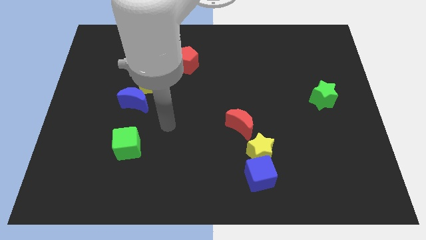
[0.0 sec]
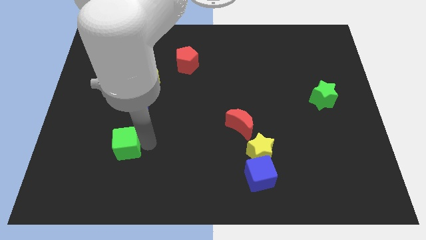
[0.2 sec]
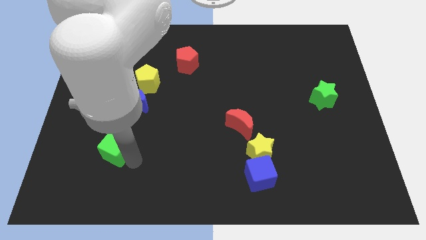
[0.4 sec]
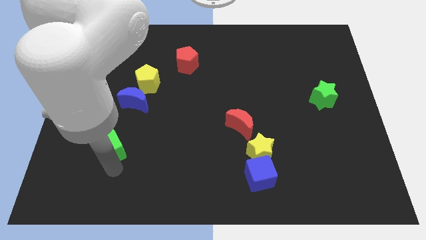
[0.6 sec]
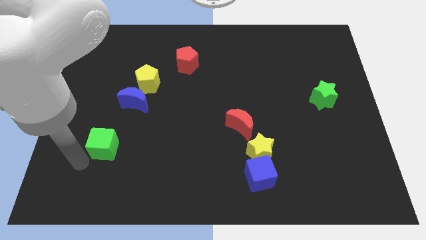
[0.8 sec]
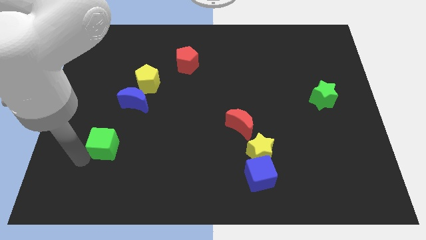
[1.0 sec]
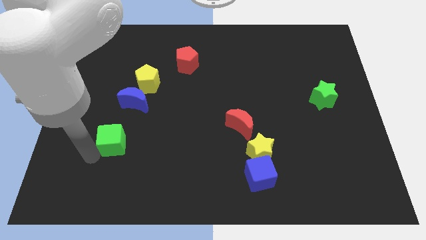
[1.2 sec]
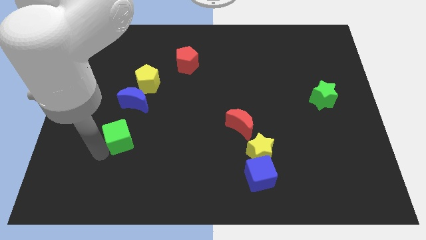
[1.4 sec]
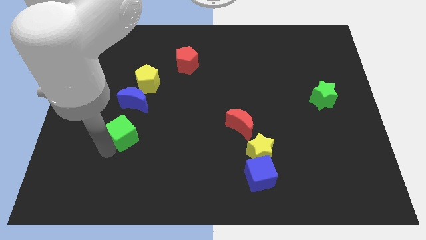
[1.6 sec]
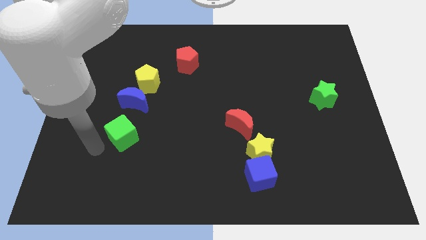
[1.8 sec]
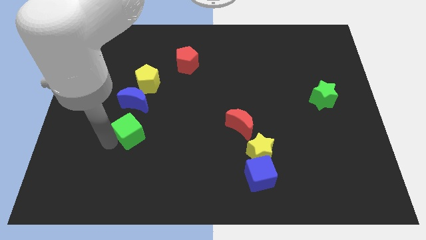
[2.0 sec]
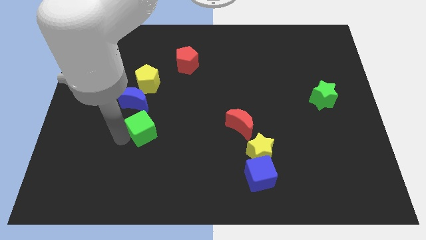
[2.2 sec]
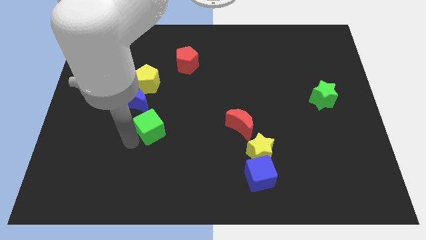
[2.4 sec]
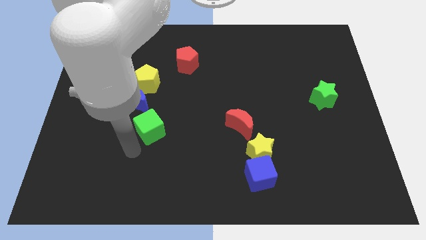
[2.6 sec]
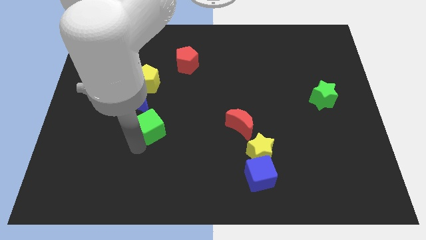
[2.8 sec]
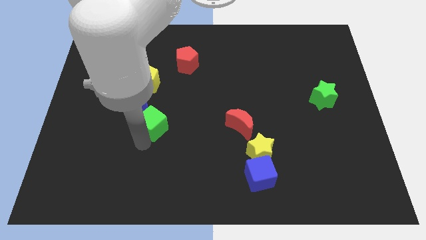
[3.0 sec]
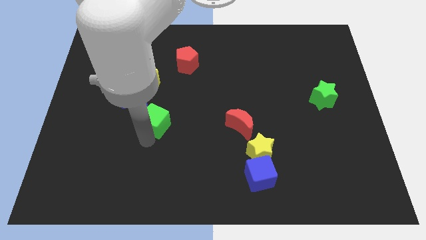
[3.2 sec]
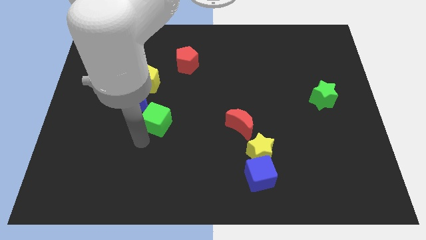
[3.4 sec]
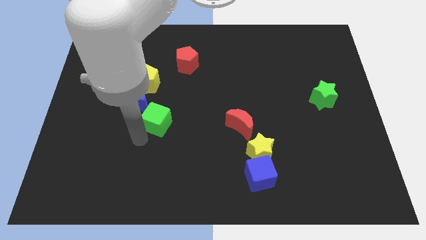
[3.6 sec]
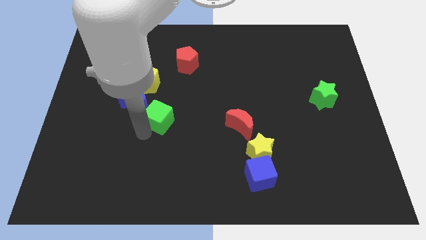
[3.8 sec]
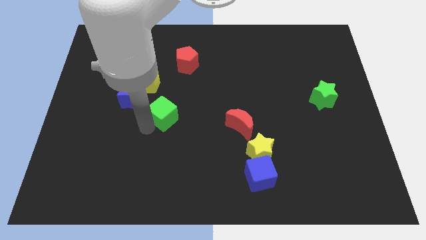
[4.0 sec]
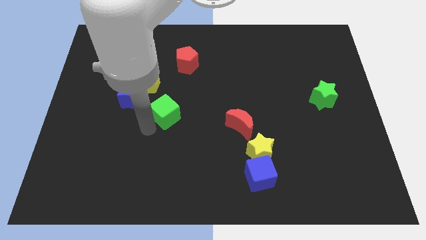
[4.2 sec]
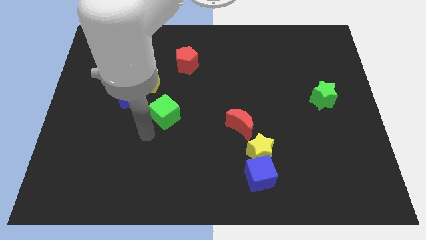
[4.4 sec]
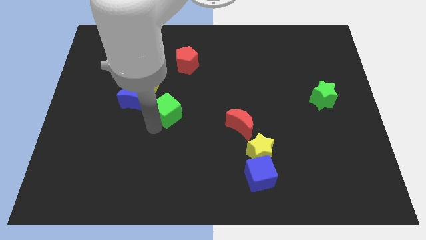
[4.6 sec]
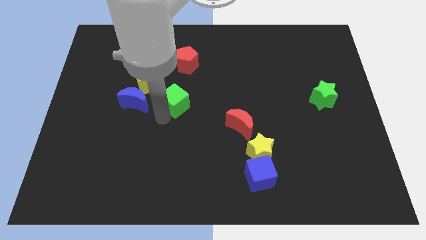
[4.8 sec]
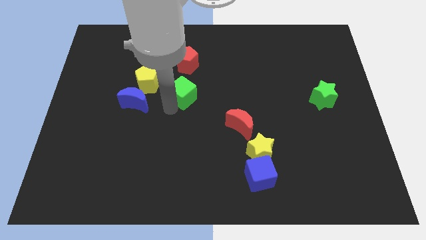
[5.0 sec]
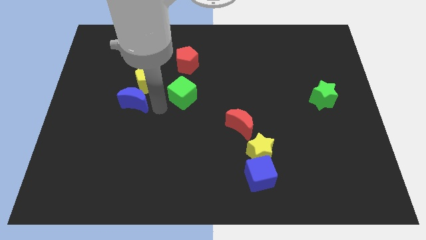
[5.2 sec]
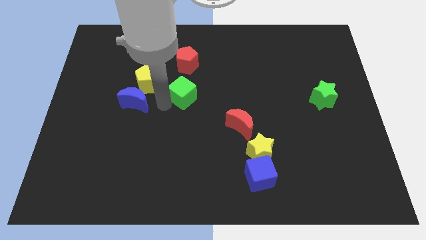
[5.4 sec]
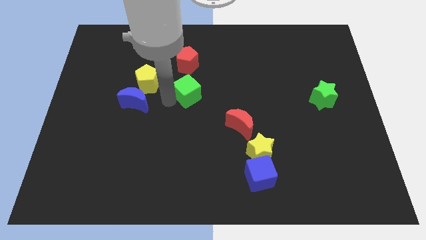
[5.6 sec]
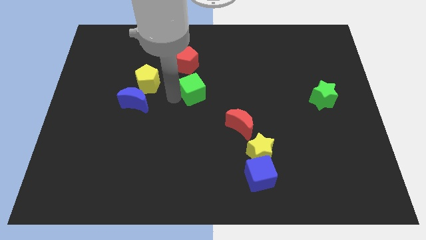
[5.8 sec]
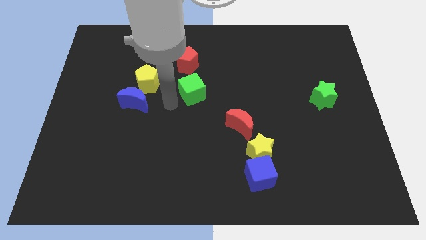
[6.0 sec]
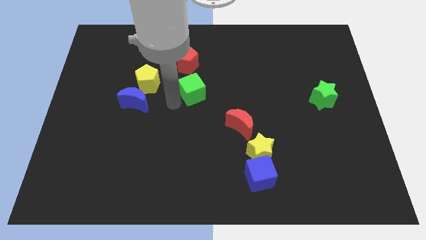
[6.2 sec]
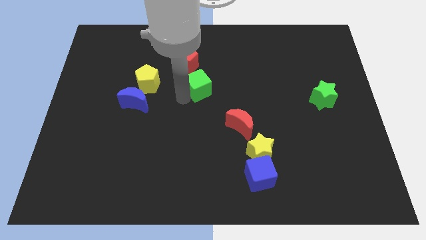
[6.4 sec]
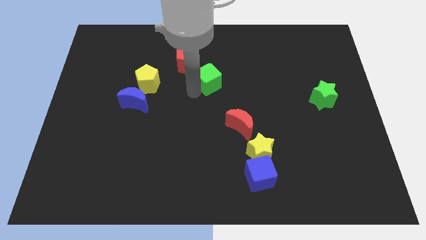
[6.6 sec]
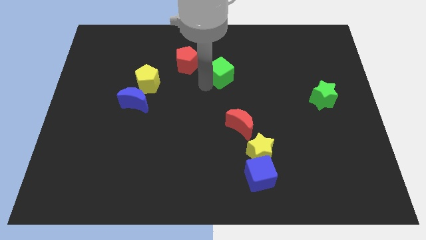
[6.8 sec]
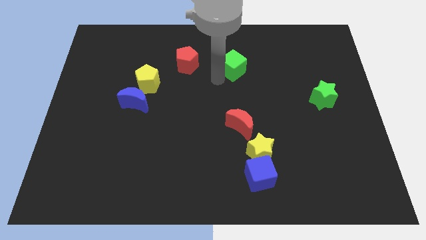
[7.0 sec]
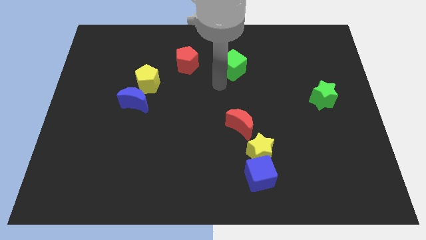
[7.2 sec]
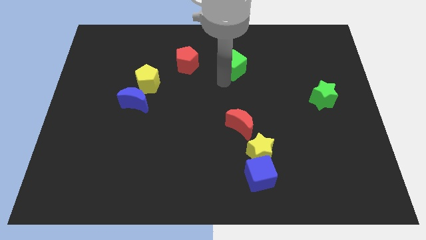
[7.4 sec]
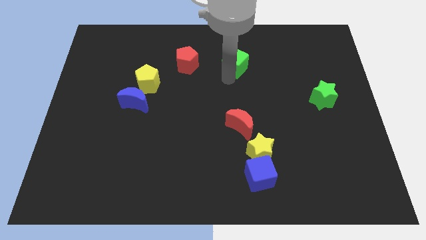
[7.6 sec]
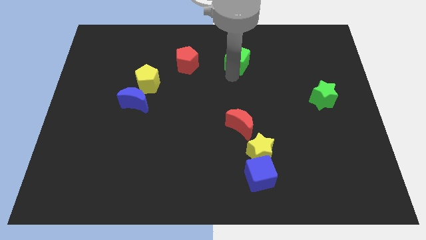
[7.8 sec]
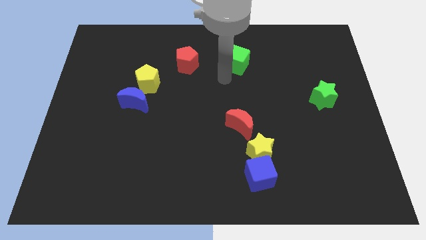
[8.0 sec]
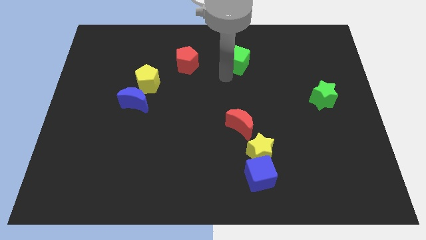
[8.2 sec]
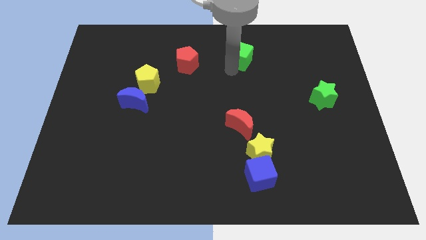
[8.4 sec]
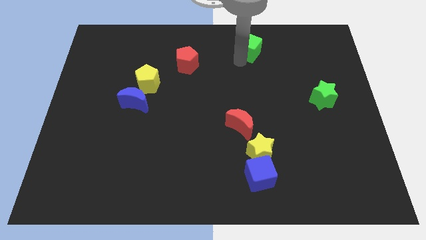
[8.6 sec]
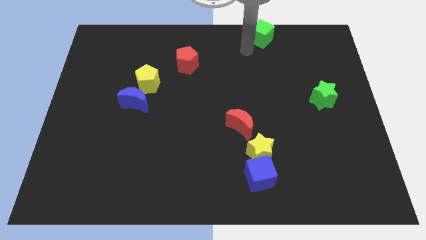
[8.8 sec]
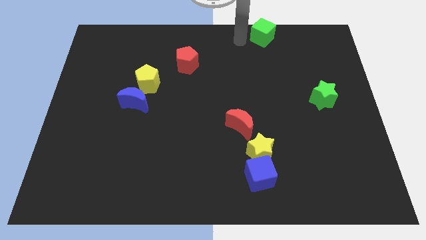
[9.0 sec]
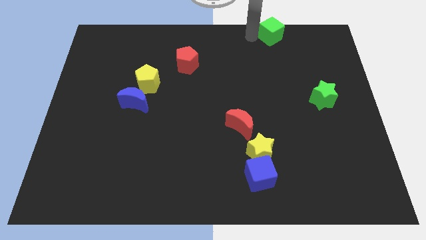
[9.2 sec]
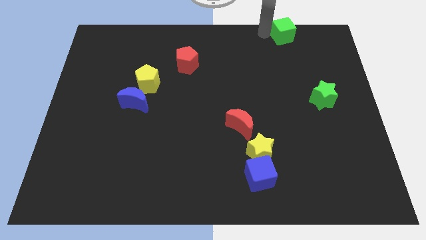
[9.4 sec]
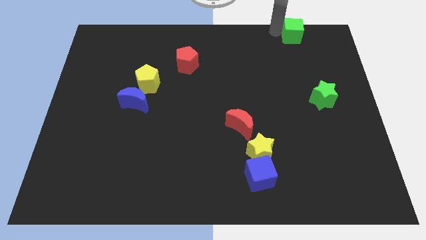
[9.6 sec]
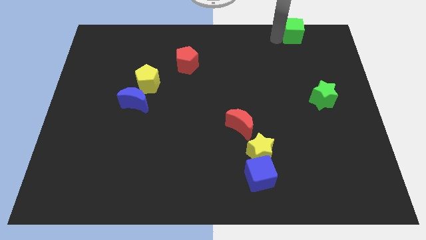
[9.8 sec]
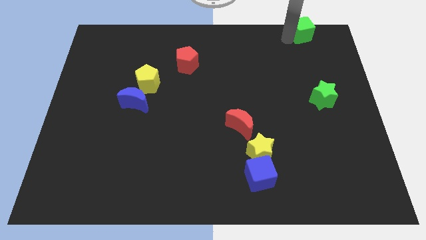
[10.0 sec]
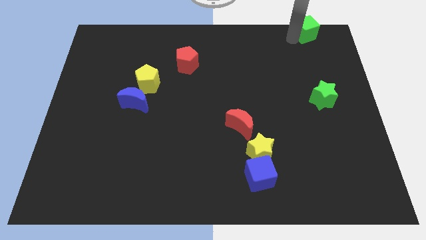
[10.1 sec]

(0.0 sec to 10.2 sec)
put the green cube to the top right of the board
